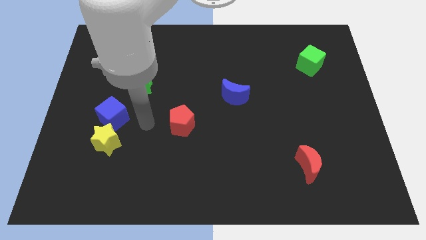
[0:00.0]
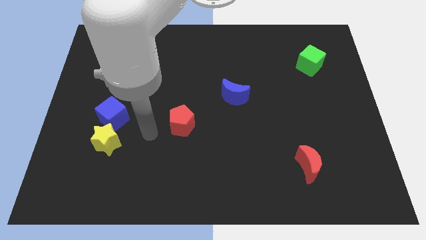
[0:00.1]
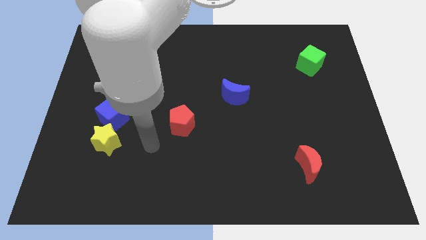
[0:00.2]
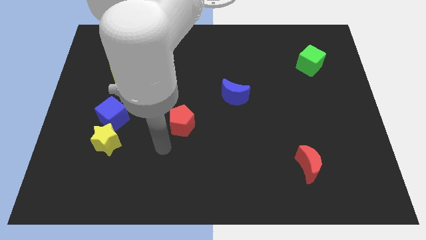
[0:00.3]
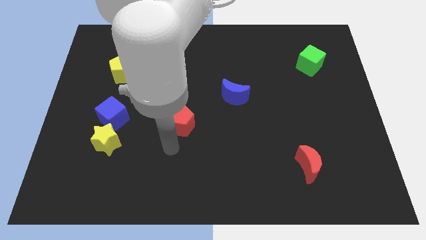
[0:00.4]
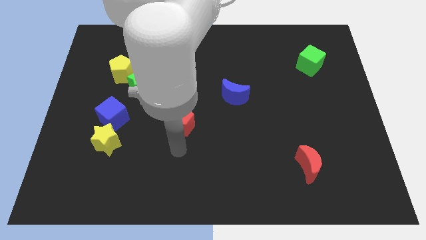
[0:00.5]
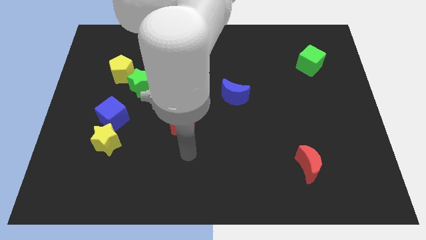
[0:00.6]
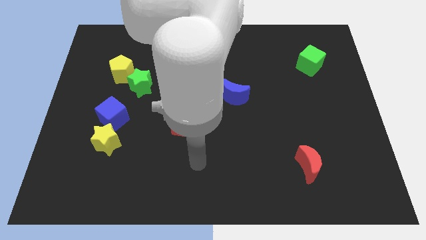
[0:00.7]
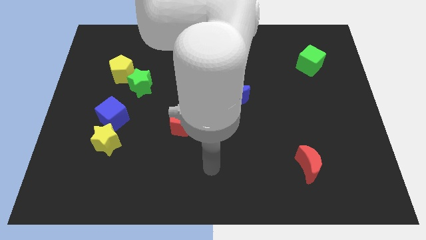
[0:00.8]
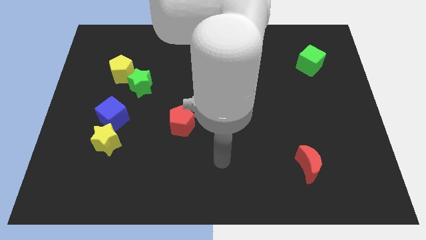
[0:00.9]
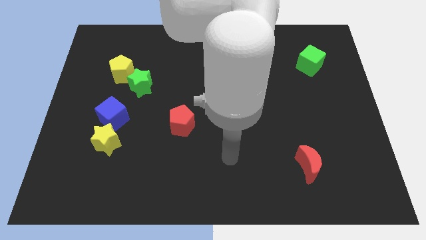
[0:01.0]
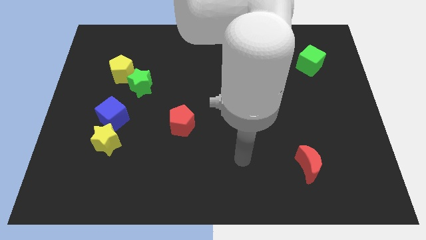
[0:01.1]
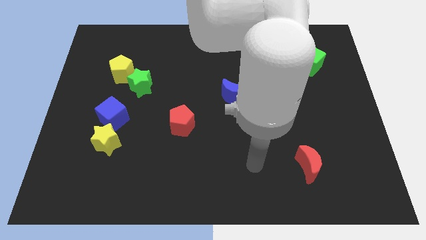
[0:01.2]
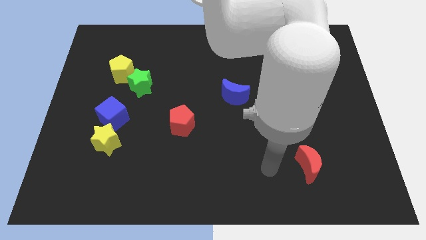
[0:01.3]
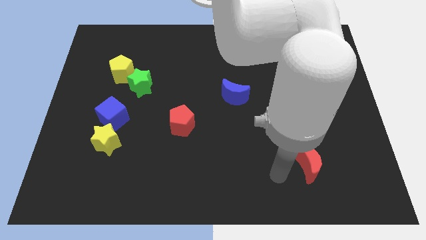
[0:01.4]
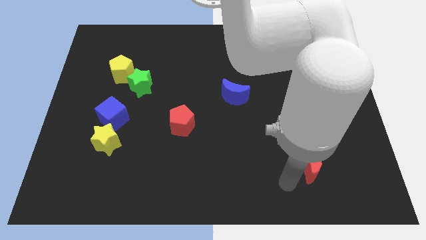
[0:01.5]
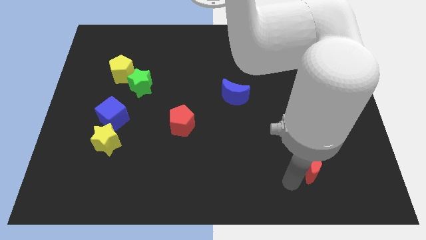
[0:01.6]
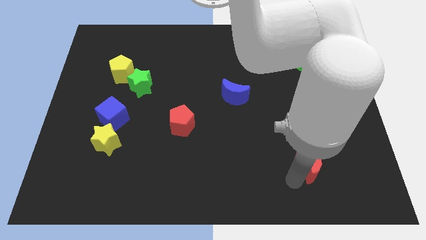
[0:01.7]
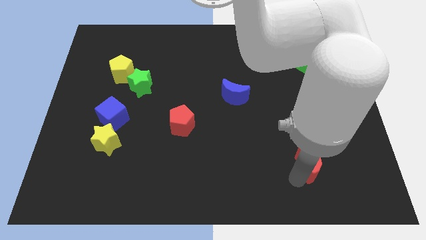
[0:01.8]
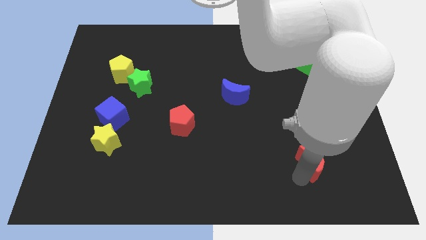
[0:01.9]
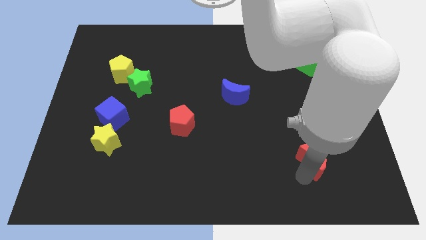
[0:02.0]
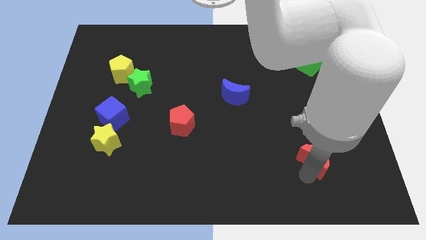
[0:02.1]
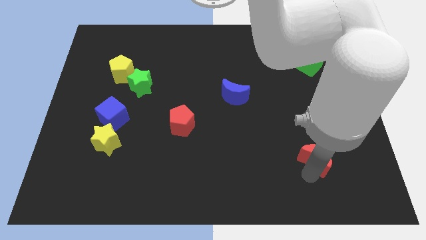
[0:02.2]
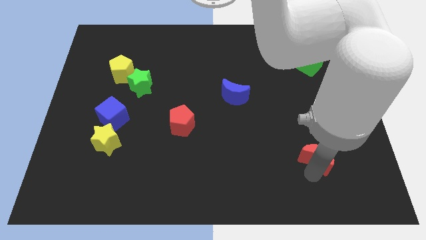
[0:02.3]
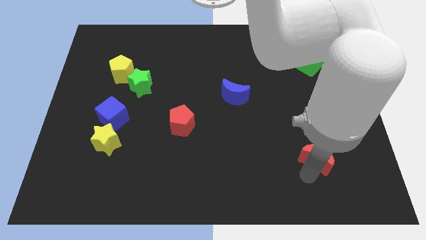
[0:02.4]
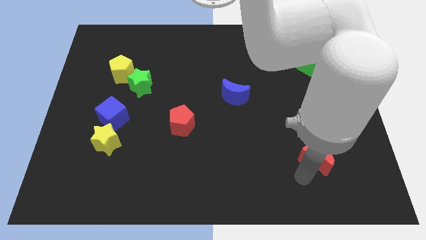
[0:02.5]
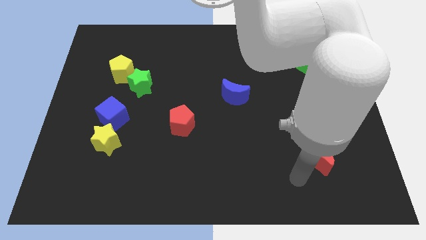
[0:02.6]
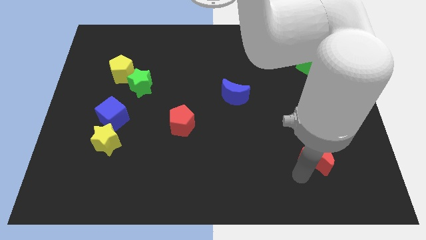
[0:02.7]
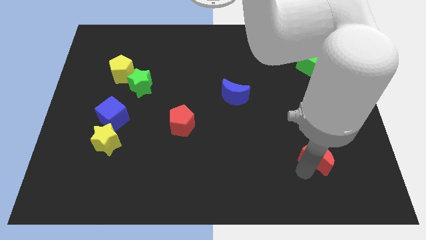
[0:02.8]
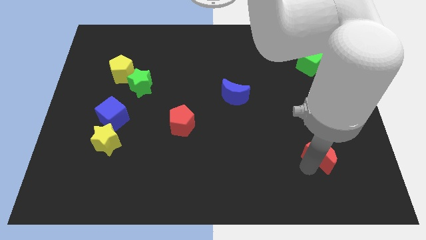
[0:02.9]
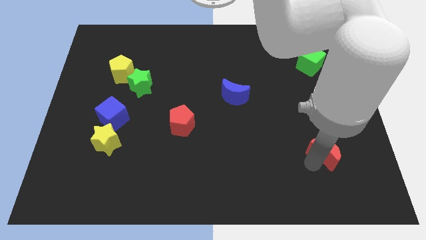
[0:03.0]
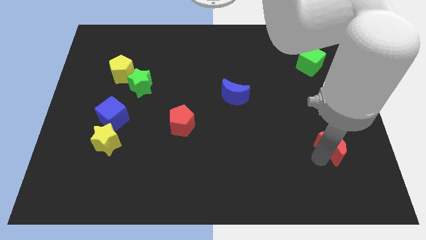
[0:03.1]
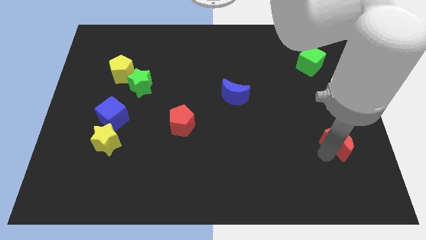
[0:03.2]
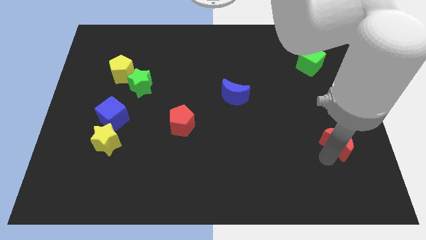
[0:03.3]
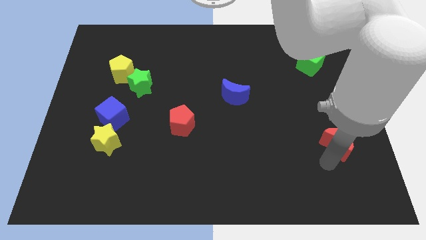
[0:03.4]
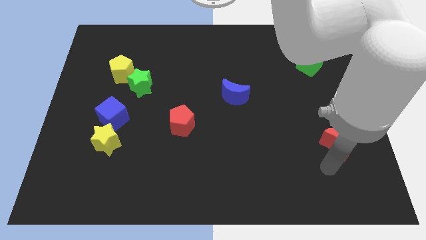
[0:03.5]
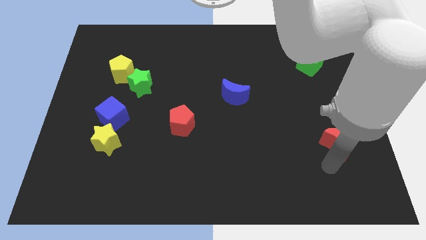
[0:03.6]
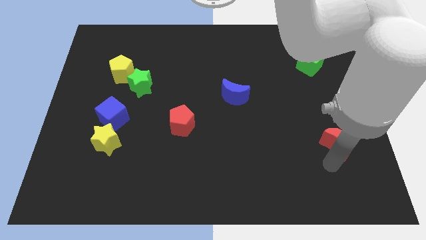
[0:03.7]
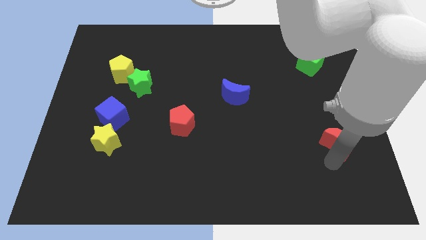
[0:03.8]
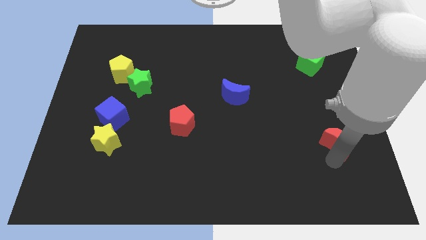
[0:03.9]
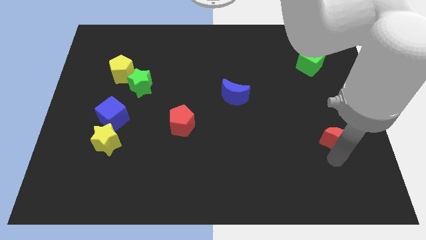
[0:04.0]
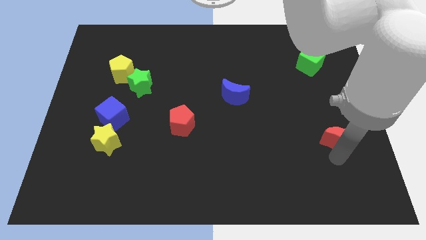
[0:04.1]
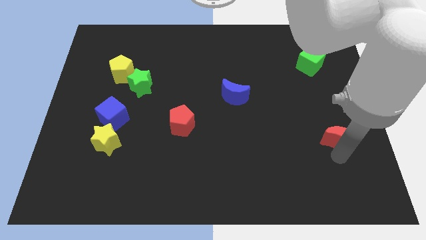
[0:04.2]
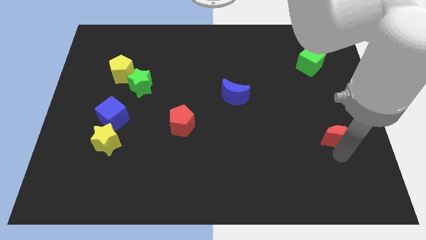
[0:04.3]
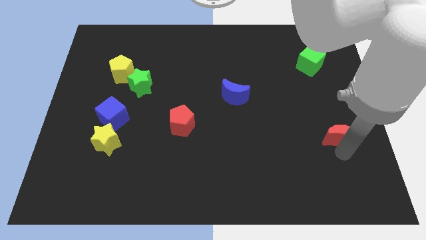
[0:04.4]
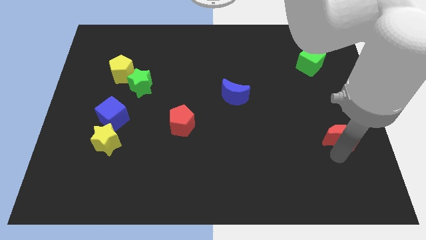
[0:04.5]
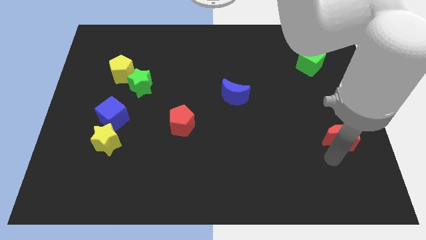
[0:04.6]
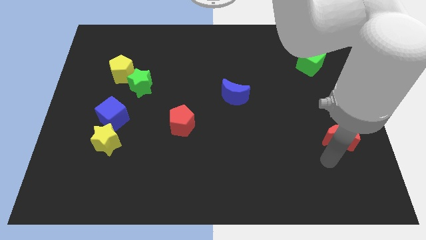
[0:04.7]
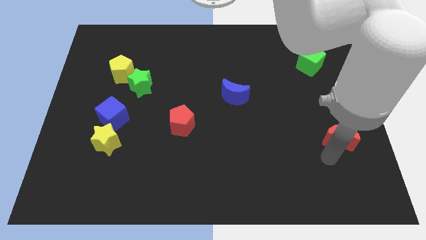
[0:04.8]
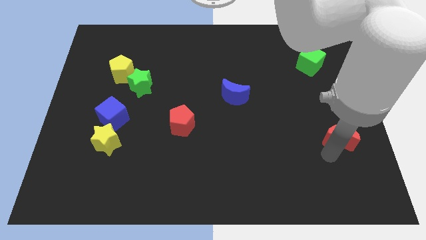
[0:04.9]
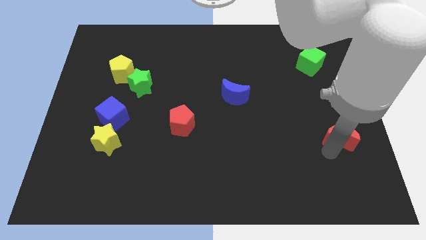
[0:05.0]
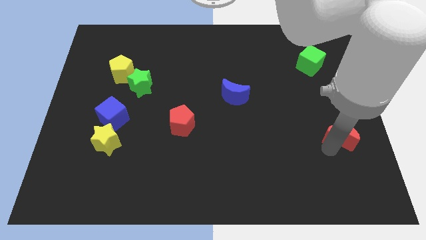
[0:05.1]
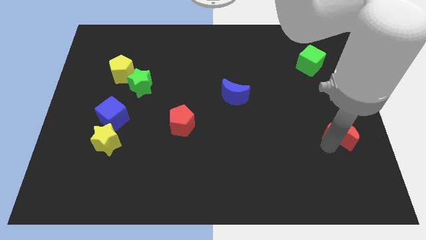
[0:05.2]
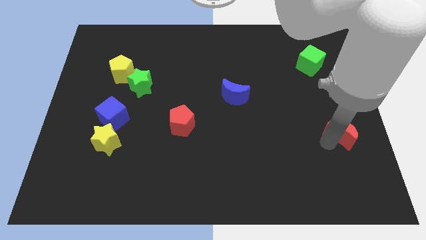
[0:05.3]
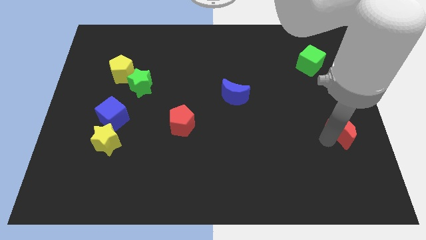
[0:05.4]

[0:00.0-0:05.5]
slide the red moon to the center right

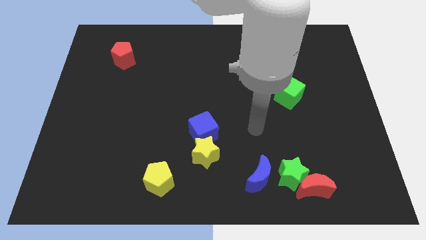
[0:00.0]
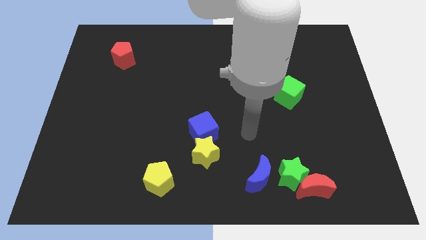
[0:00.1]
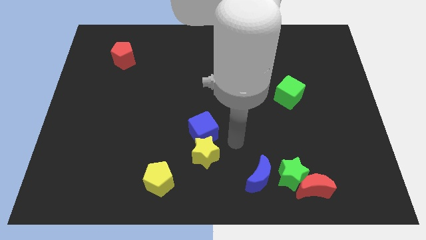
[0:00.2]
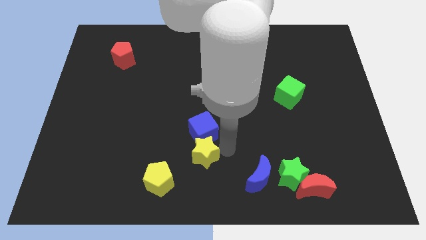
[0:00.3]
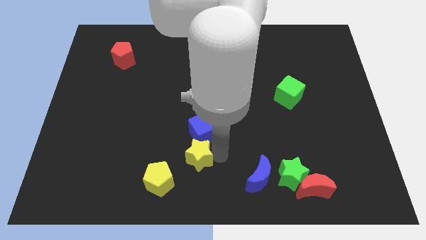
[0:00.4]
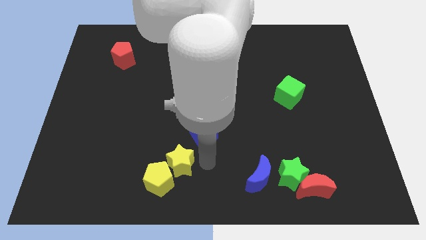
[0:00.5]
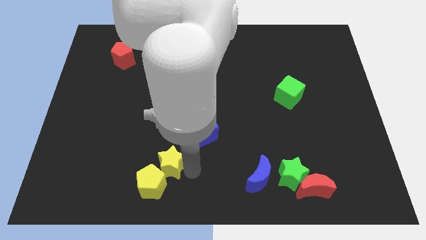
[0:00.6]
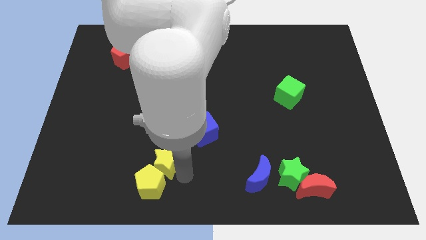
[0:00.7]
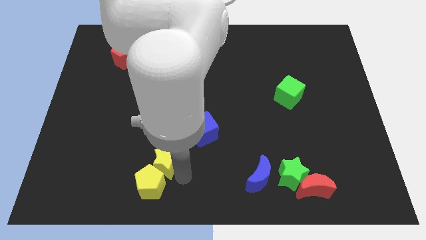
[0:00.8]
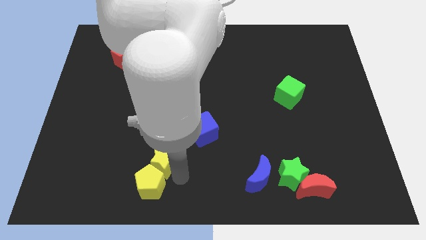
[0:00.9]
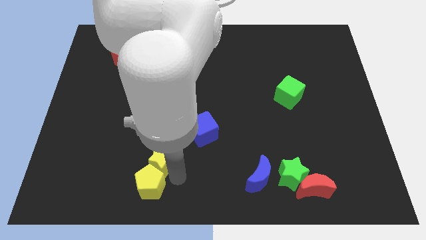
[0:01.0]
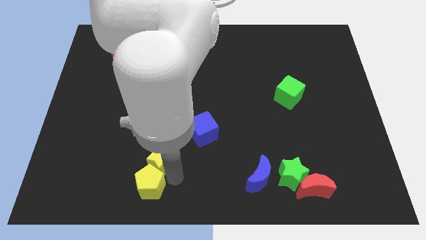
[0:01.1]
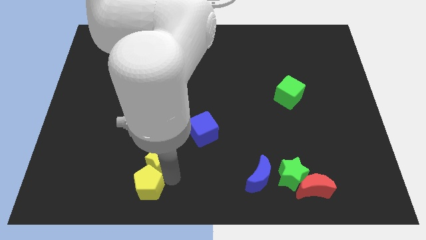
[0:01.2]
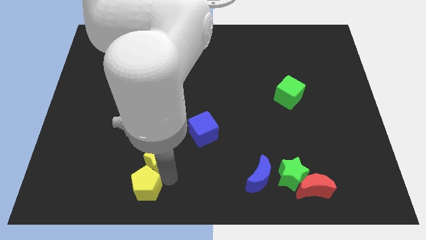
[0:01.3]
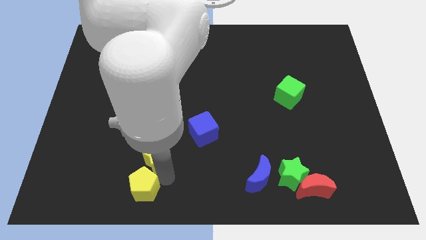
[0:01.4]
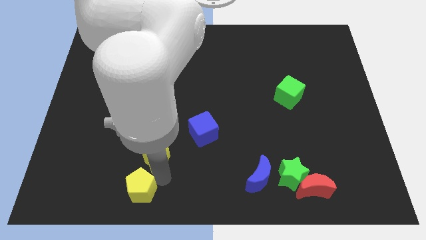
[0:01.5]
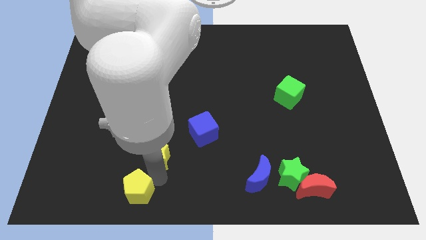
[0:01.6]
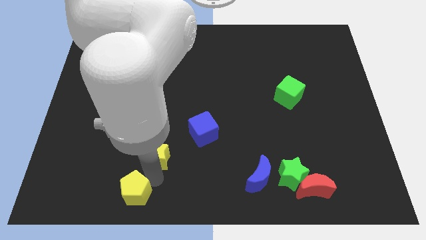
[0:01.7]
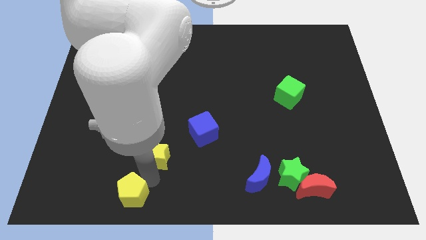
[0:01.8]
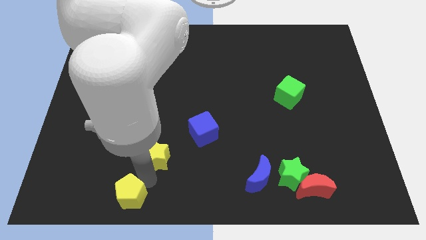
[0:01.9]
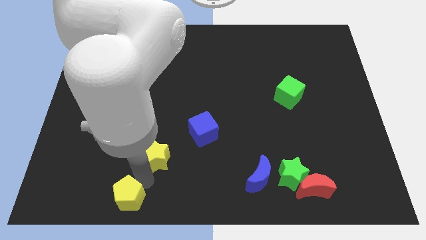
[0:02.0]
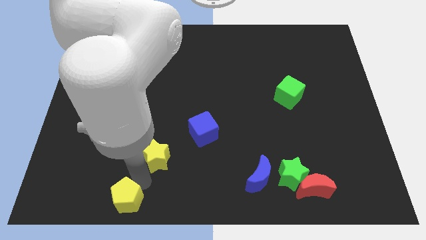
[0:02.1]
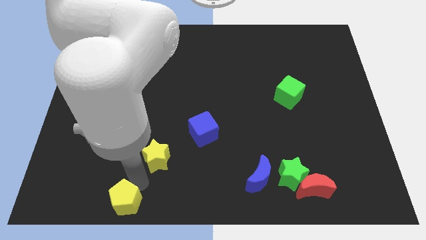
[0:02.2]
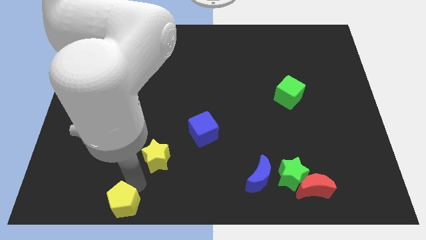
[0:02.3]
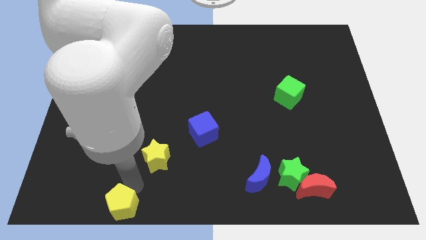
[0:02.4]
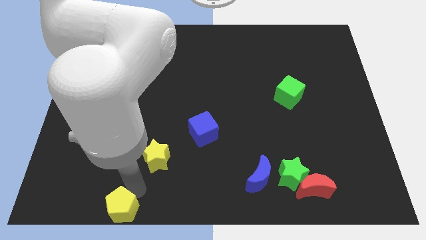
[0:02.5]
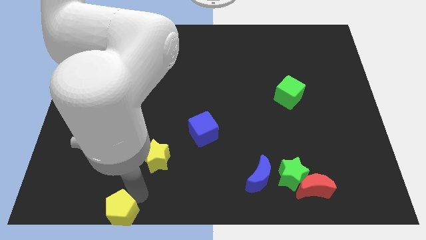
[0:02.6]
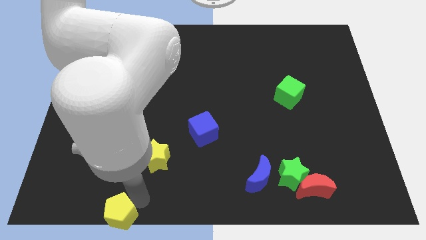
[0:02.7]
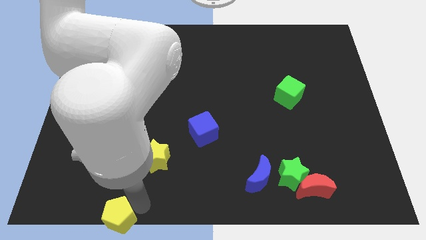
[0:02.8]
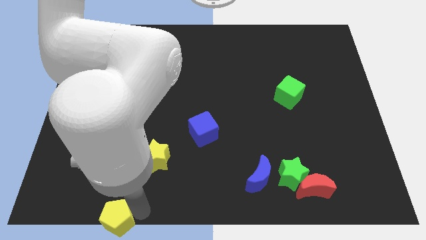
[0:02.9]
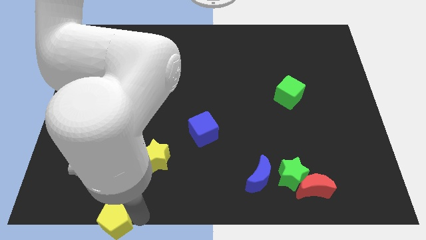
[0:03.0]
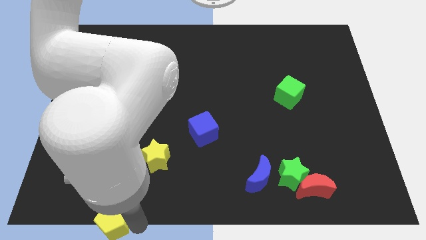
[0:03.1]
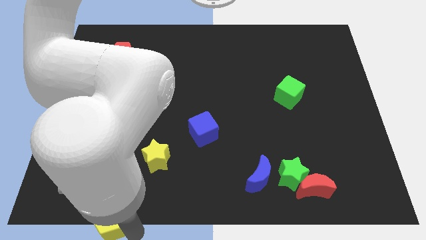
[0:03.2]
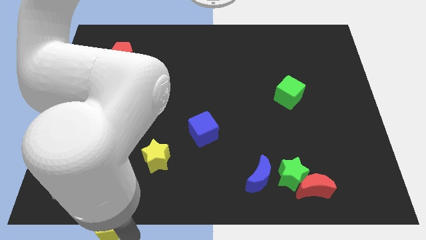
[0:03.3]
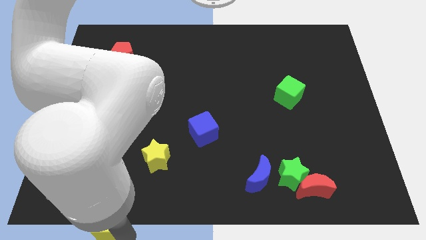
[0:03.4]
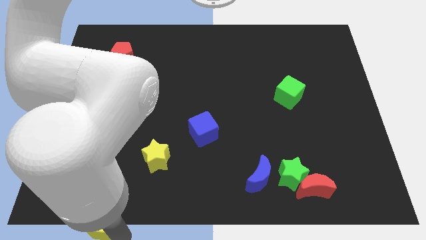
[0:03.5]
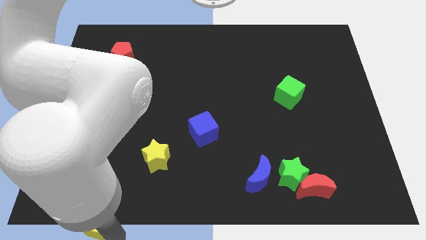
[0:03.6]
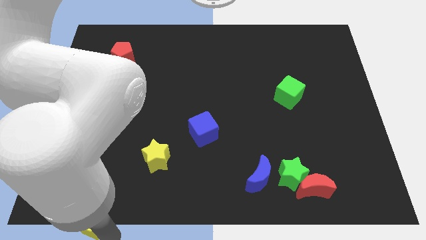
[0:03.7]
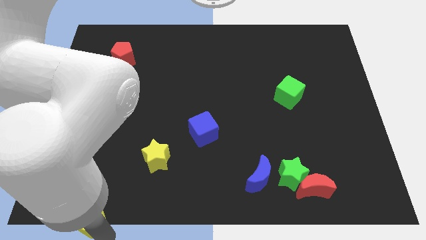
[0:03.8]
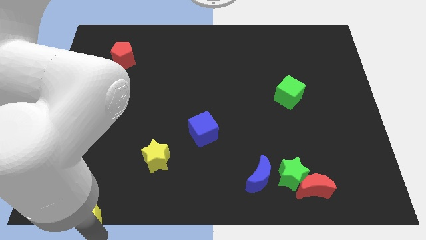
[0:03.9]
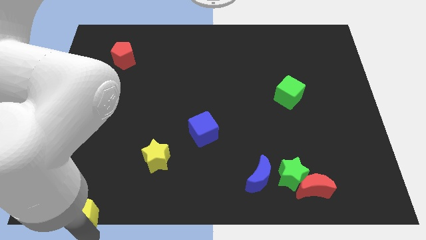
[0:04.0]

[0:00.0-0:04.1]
put the yellow pentagon to the bottom left corner
